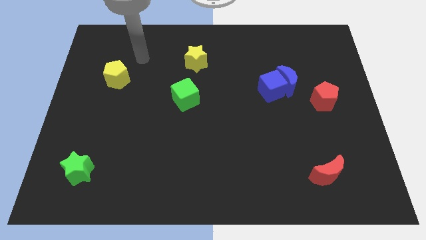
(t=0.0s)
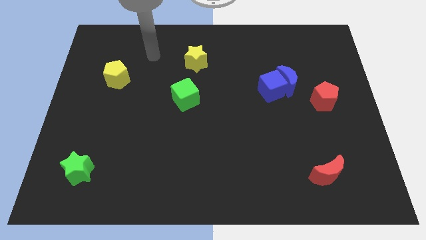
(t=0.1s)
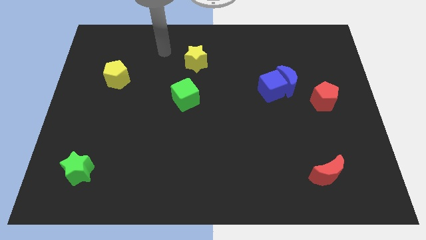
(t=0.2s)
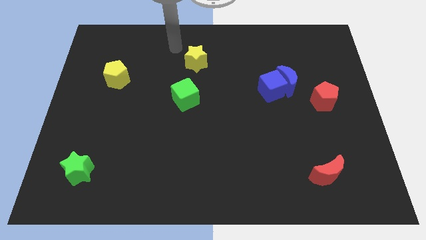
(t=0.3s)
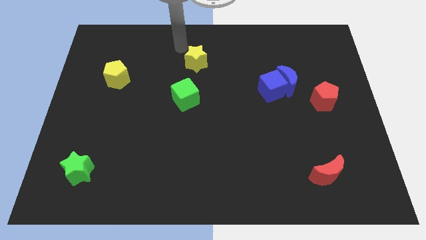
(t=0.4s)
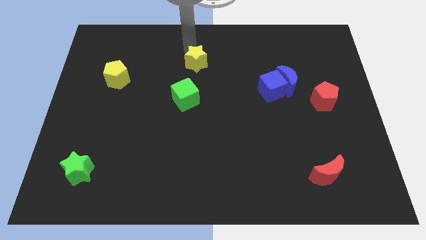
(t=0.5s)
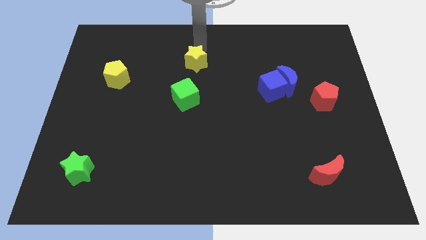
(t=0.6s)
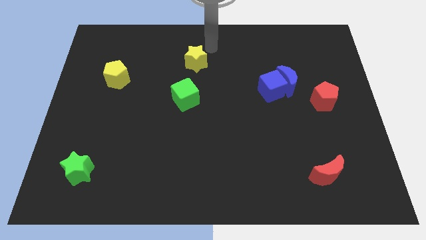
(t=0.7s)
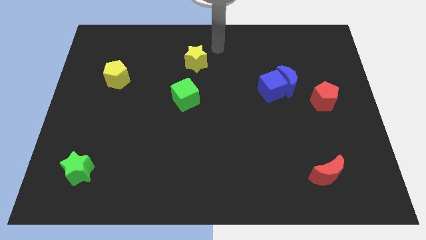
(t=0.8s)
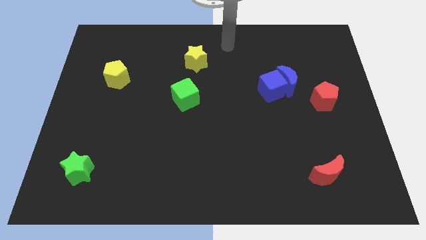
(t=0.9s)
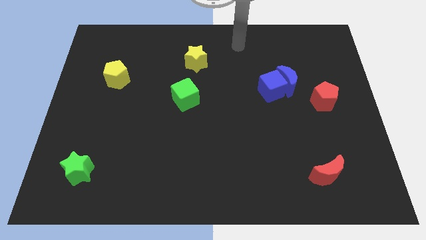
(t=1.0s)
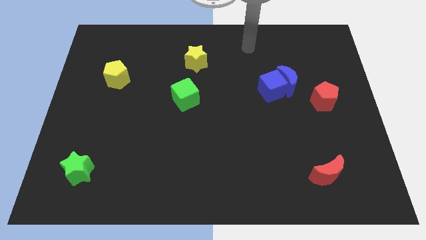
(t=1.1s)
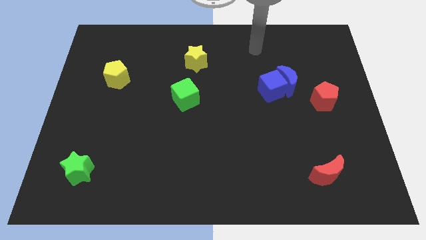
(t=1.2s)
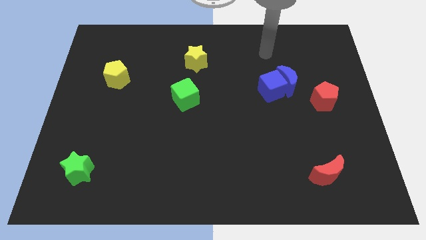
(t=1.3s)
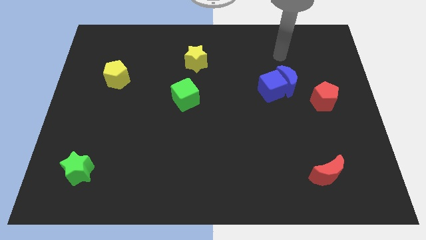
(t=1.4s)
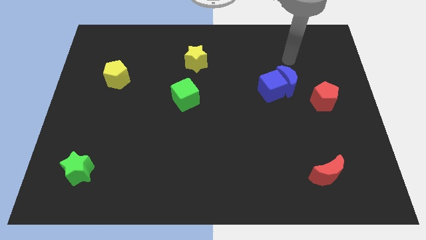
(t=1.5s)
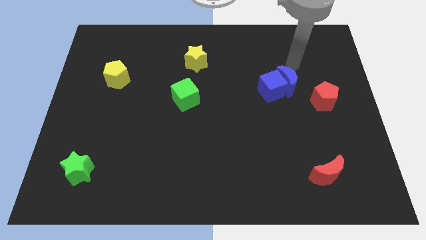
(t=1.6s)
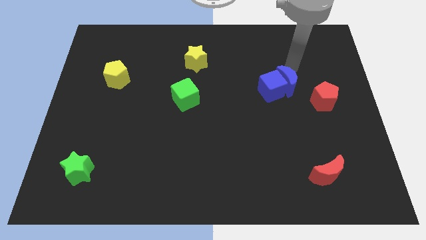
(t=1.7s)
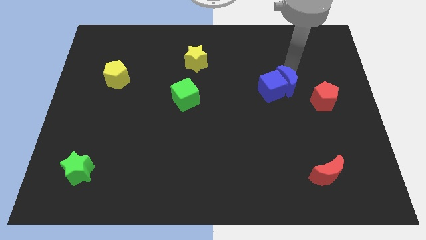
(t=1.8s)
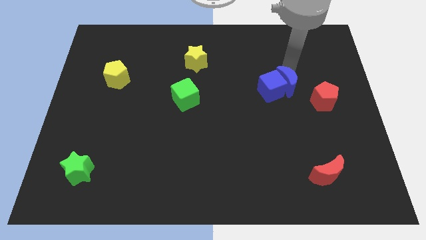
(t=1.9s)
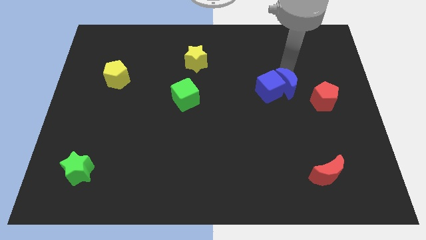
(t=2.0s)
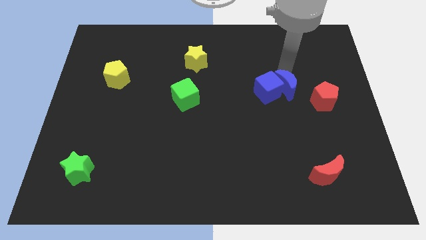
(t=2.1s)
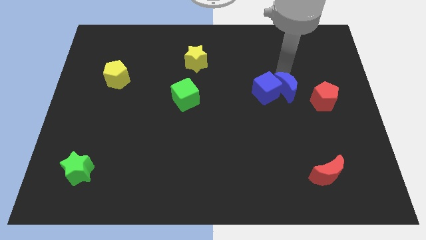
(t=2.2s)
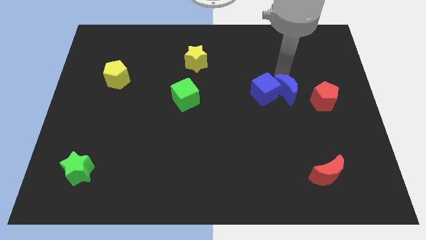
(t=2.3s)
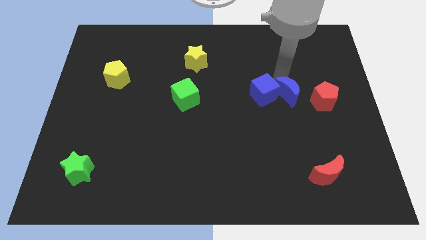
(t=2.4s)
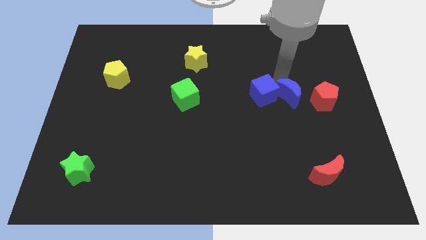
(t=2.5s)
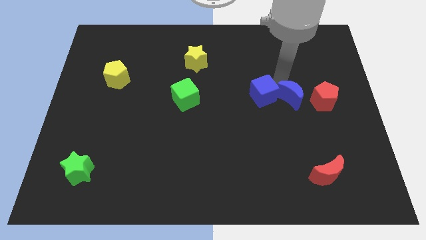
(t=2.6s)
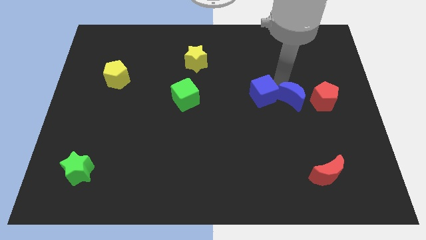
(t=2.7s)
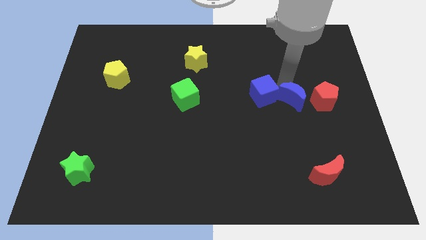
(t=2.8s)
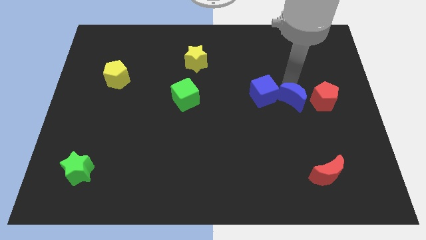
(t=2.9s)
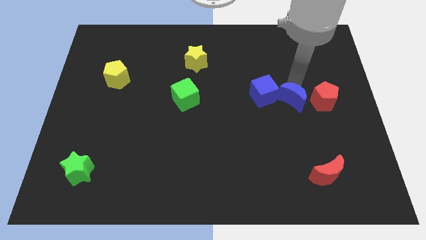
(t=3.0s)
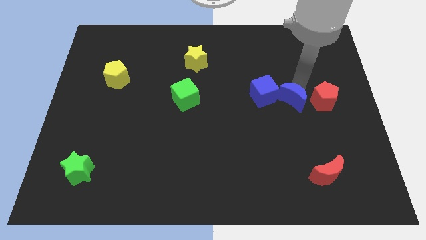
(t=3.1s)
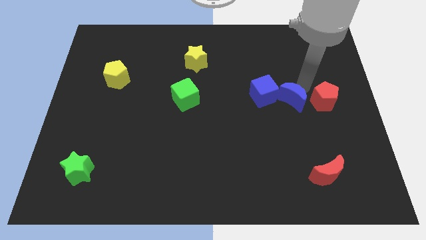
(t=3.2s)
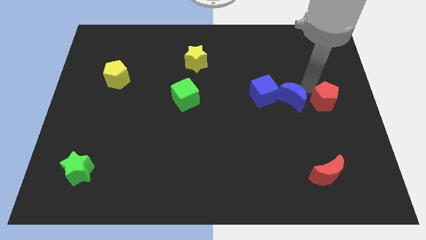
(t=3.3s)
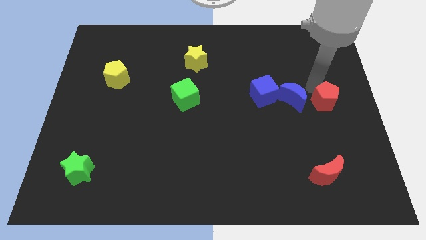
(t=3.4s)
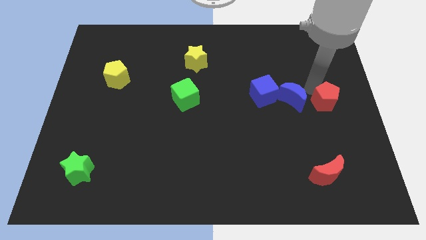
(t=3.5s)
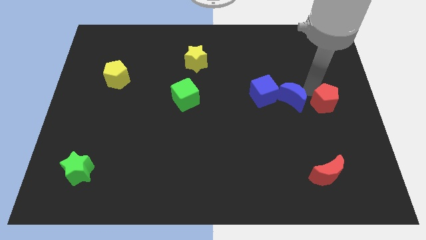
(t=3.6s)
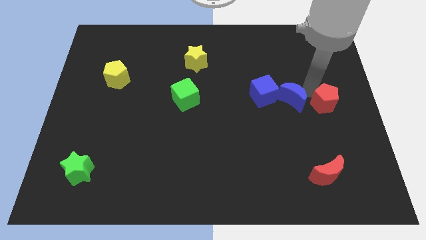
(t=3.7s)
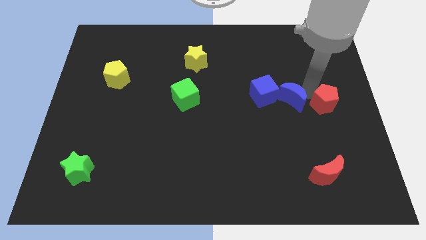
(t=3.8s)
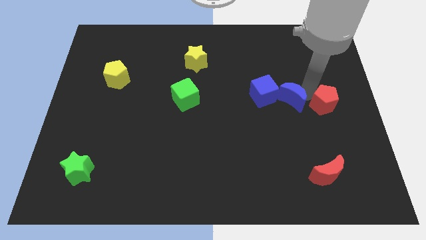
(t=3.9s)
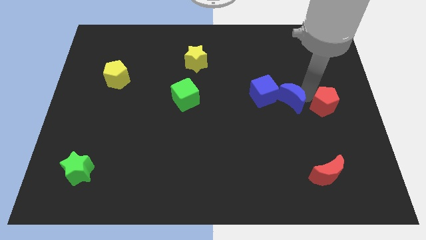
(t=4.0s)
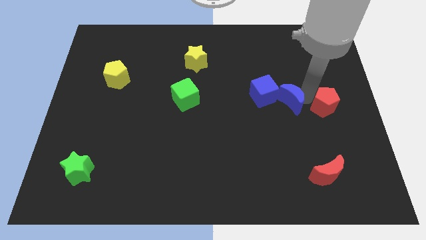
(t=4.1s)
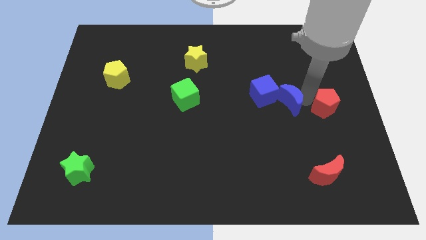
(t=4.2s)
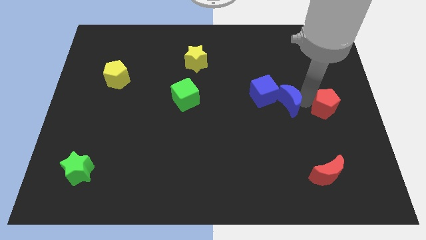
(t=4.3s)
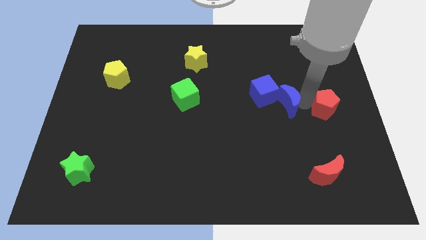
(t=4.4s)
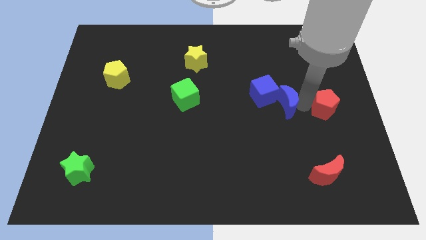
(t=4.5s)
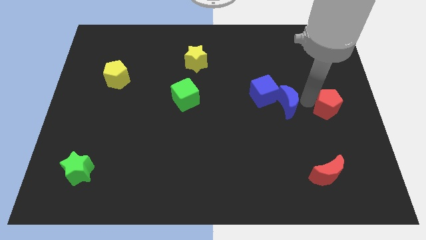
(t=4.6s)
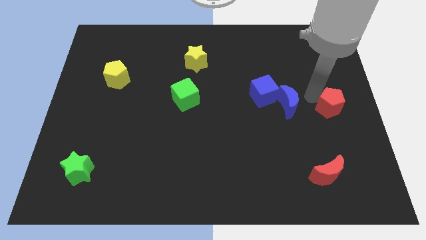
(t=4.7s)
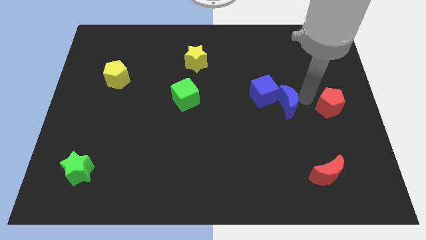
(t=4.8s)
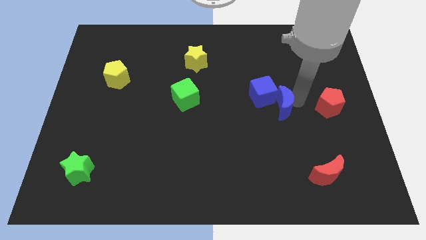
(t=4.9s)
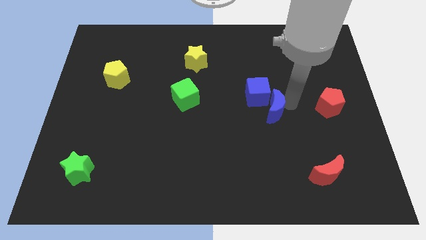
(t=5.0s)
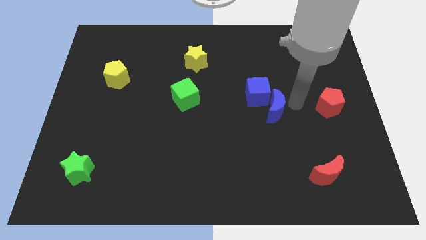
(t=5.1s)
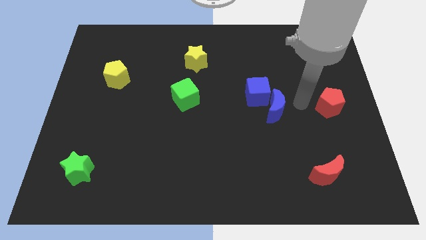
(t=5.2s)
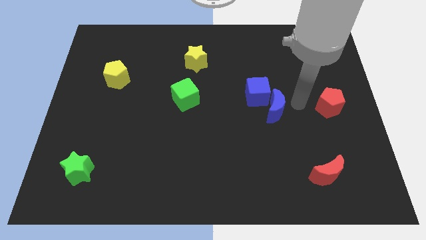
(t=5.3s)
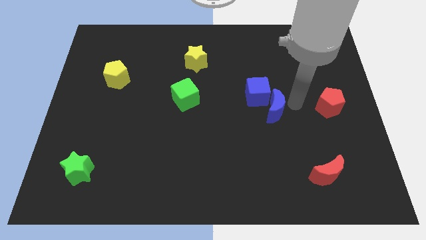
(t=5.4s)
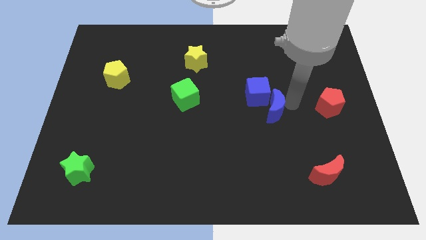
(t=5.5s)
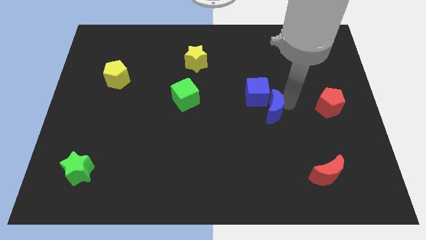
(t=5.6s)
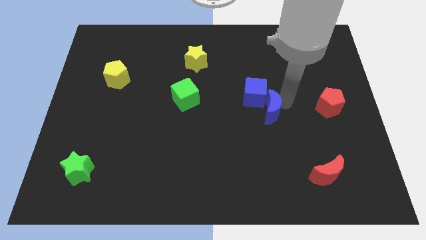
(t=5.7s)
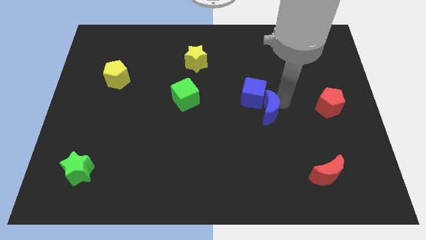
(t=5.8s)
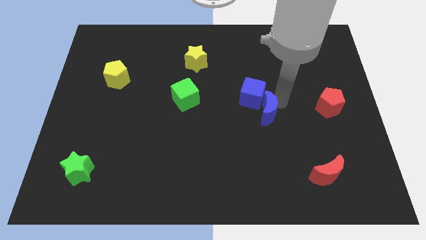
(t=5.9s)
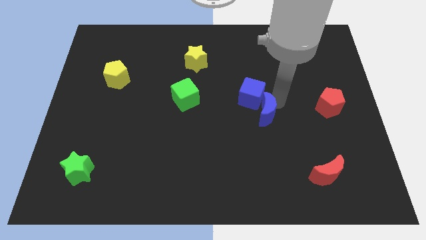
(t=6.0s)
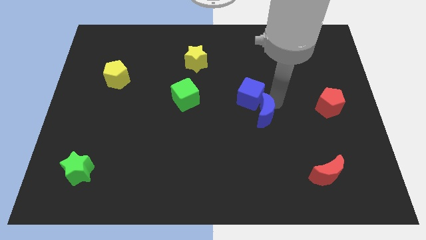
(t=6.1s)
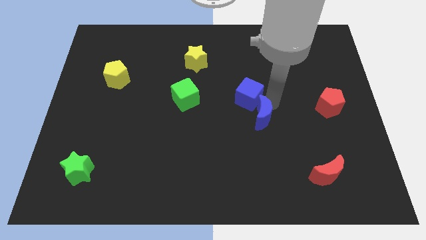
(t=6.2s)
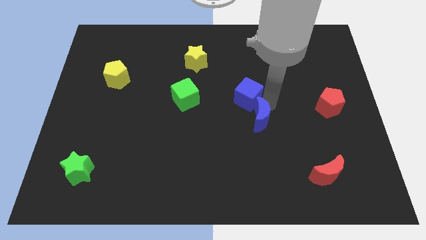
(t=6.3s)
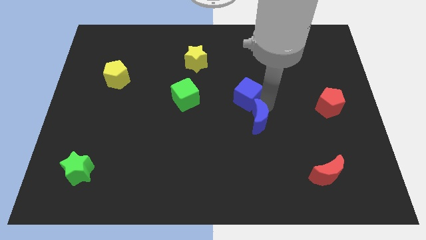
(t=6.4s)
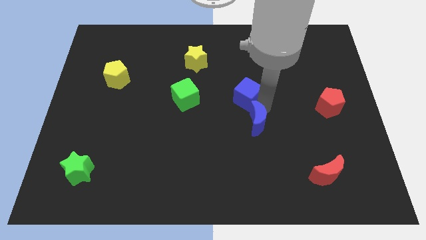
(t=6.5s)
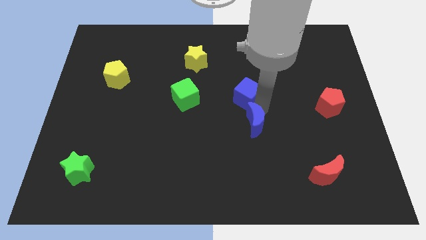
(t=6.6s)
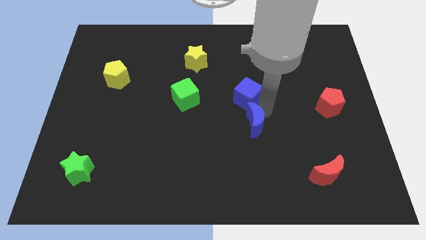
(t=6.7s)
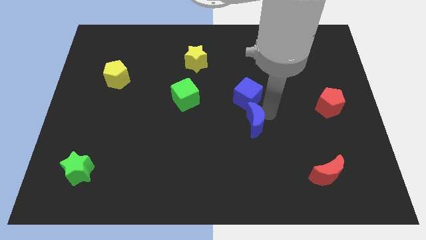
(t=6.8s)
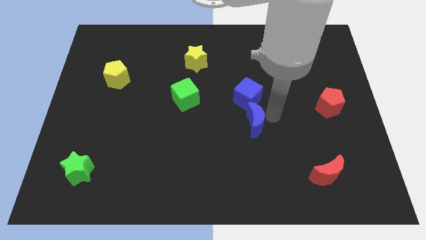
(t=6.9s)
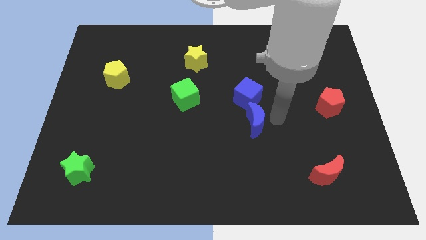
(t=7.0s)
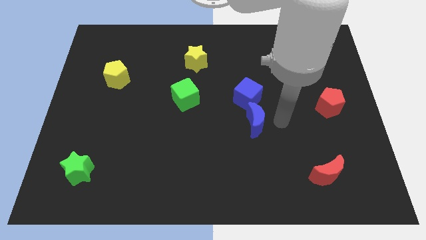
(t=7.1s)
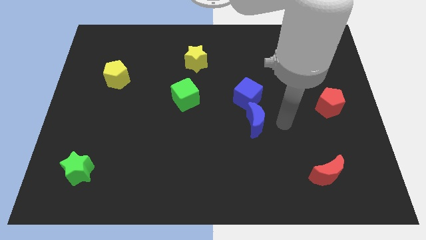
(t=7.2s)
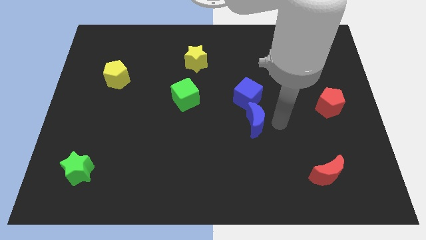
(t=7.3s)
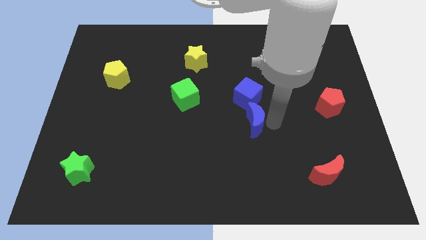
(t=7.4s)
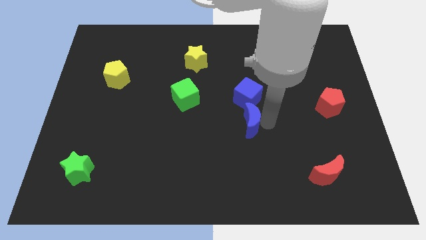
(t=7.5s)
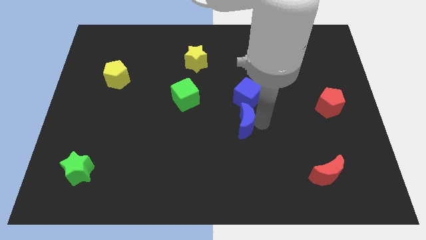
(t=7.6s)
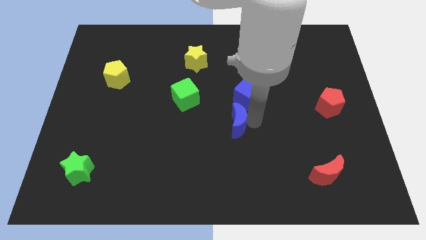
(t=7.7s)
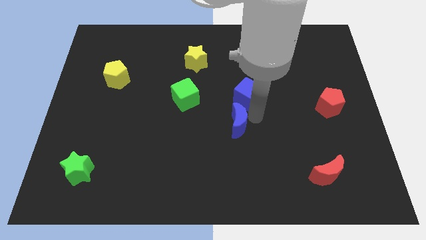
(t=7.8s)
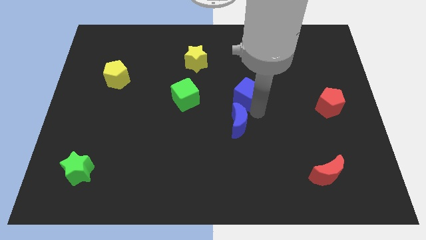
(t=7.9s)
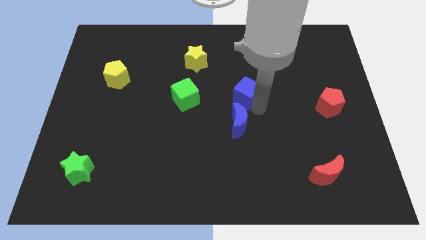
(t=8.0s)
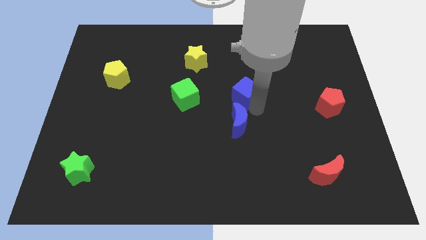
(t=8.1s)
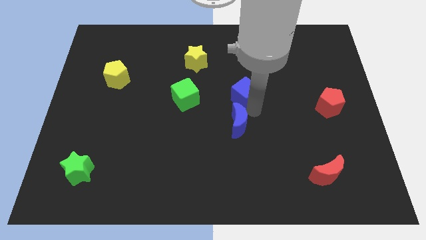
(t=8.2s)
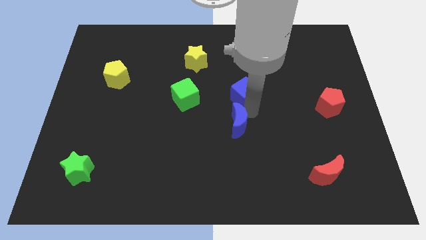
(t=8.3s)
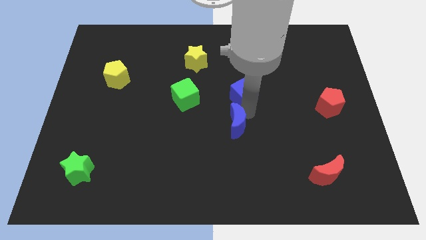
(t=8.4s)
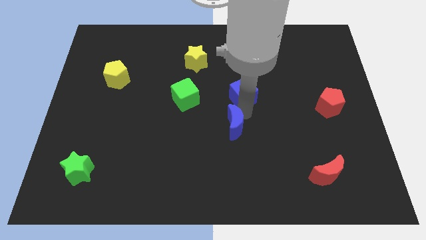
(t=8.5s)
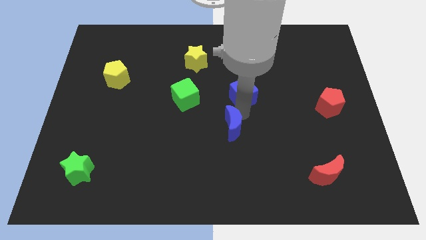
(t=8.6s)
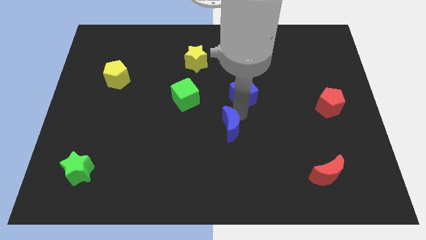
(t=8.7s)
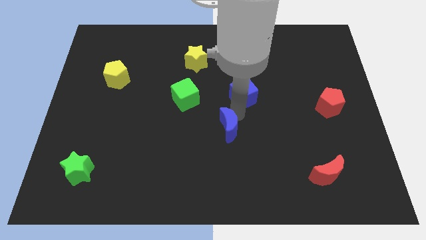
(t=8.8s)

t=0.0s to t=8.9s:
move the blue moon downwards and then left
